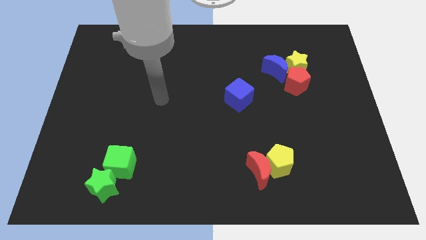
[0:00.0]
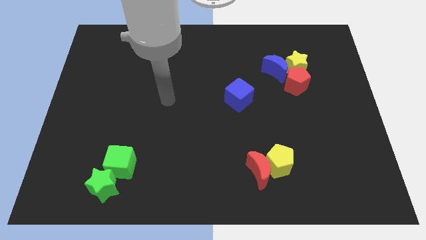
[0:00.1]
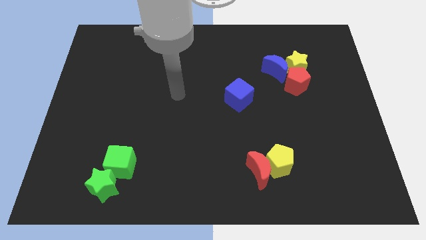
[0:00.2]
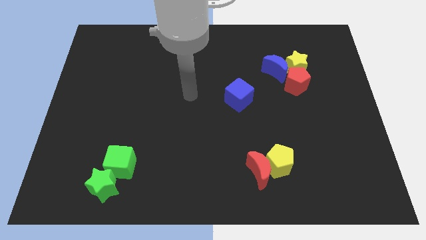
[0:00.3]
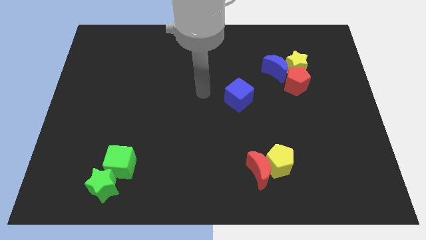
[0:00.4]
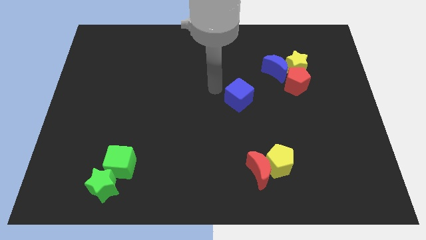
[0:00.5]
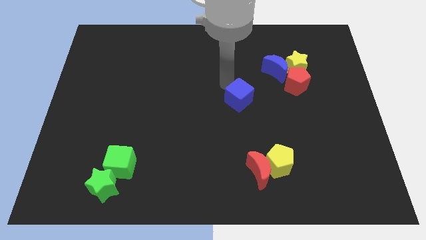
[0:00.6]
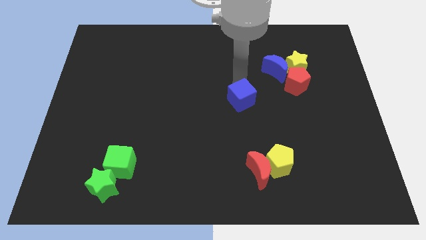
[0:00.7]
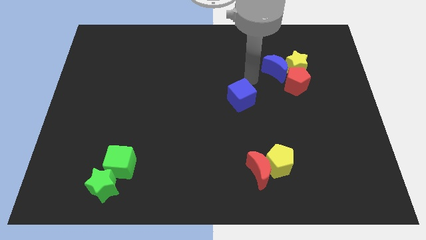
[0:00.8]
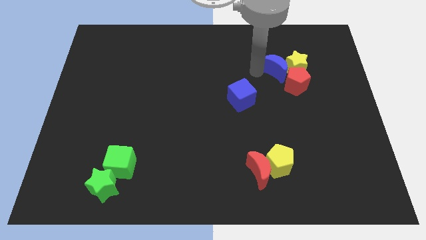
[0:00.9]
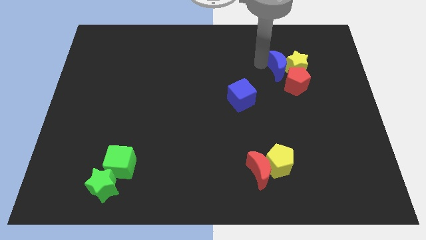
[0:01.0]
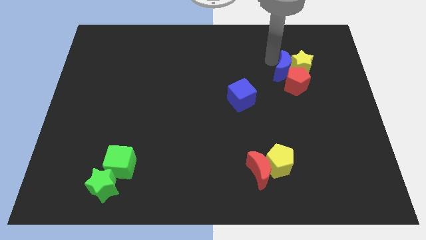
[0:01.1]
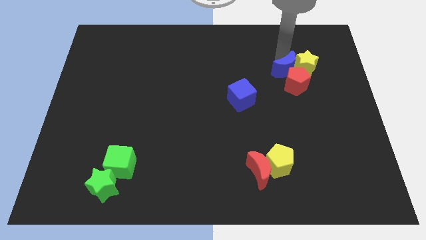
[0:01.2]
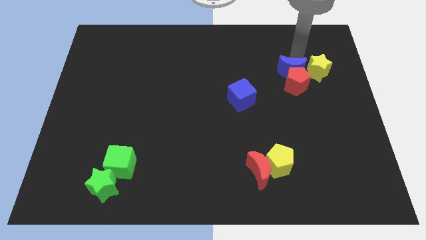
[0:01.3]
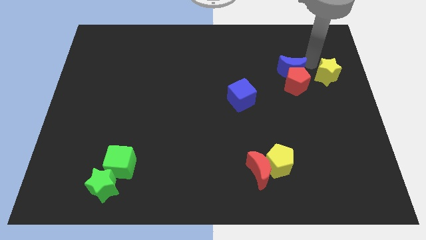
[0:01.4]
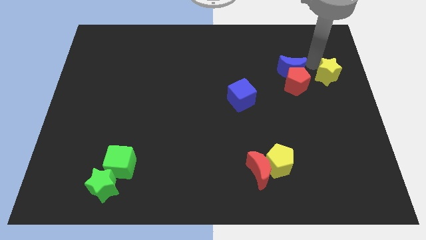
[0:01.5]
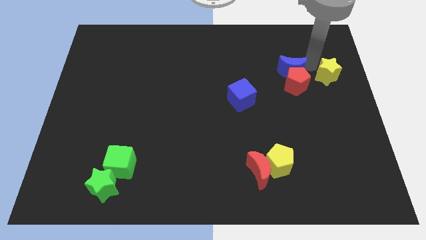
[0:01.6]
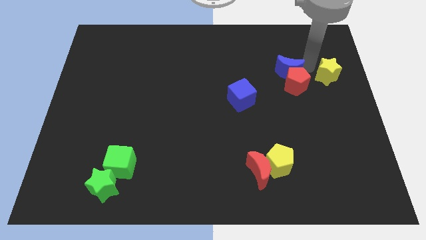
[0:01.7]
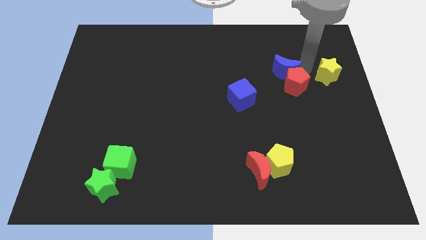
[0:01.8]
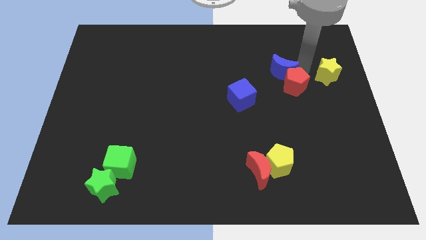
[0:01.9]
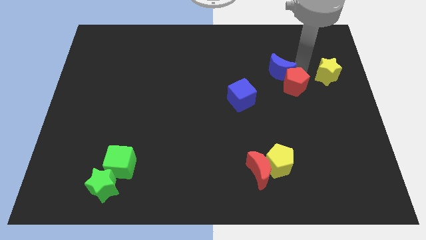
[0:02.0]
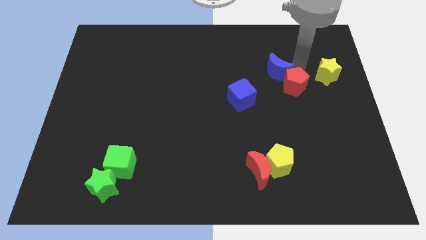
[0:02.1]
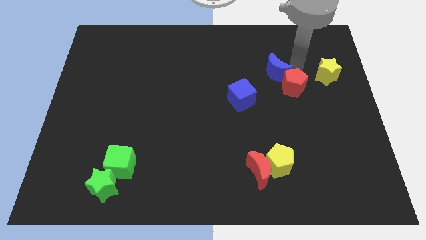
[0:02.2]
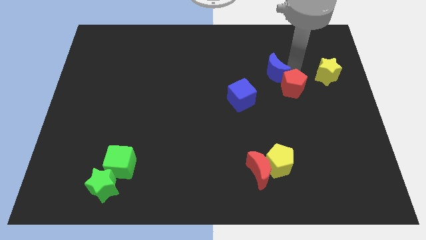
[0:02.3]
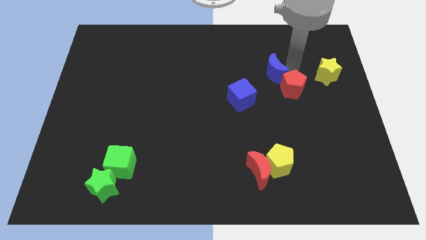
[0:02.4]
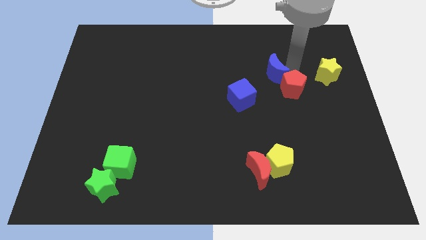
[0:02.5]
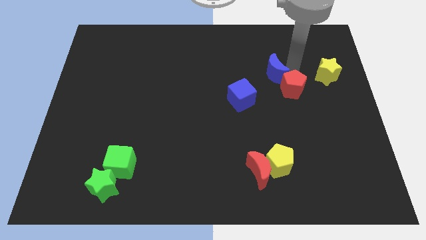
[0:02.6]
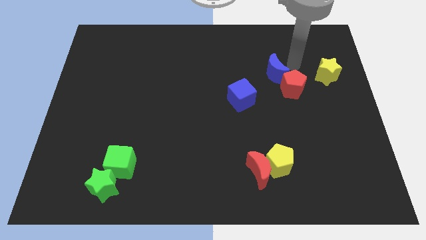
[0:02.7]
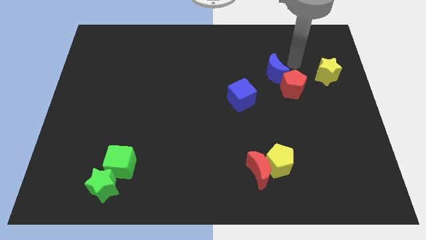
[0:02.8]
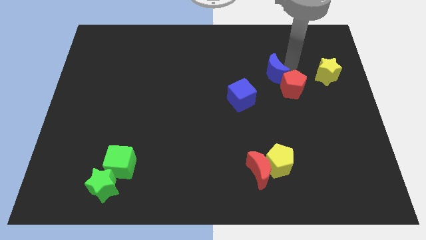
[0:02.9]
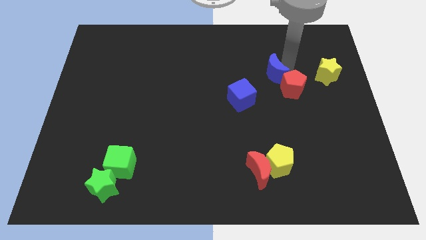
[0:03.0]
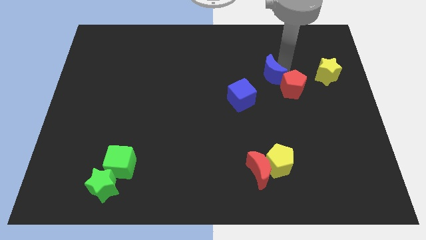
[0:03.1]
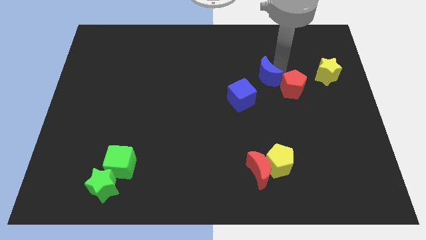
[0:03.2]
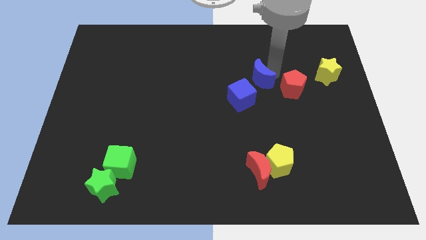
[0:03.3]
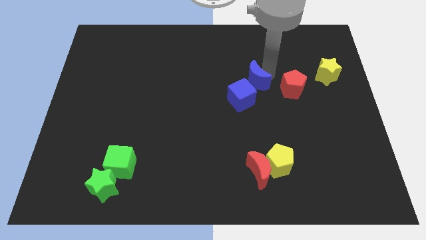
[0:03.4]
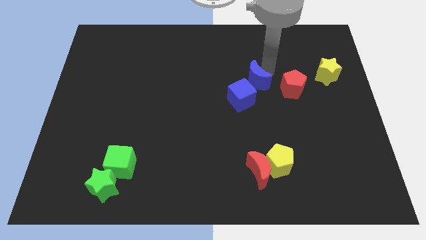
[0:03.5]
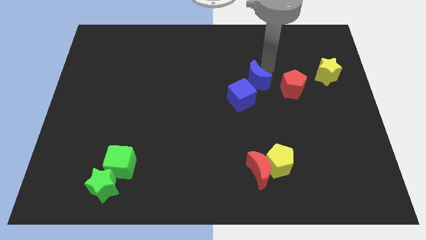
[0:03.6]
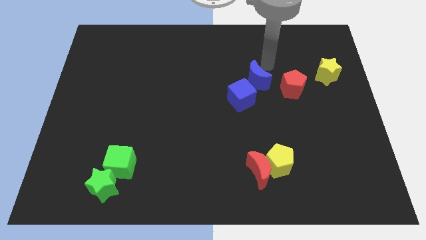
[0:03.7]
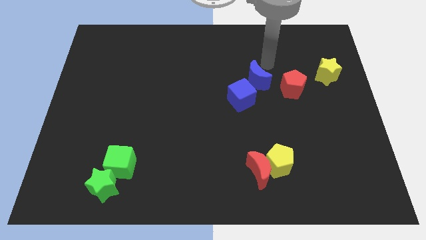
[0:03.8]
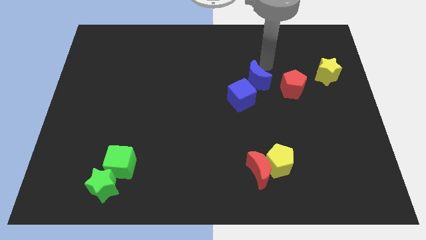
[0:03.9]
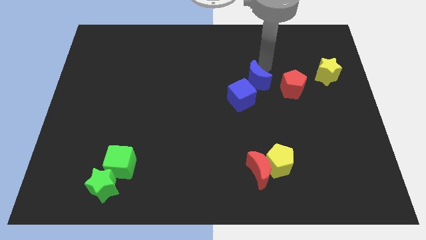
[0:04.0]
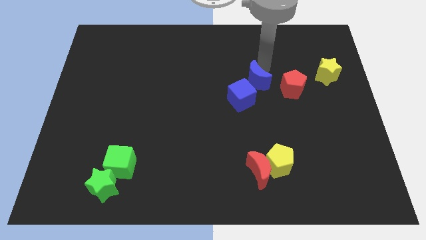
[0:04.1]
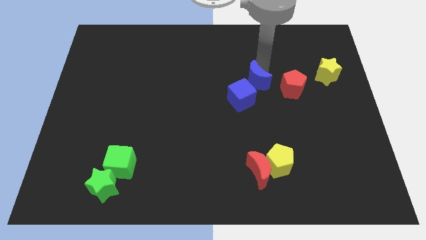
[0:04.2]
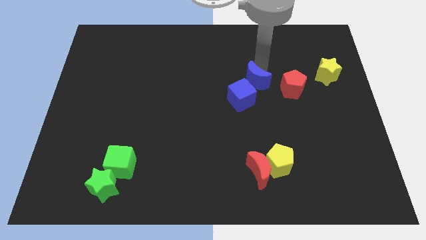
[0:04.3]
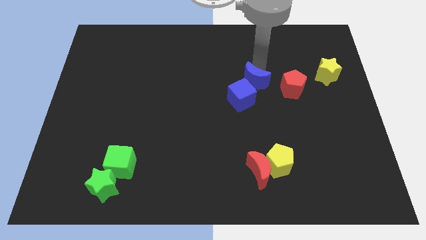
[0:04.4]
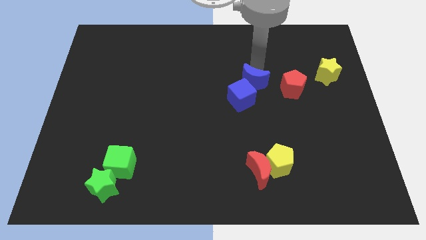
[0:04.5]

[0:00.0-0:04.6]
slide the blue moon close to the blue cube

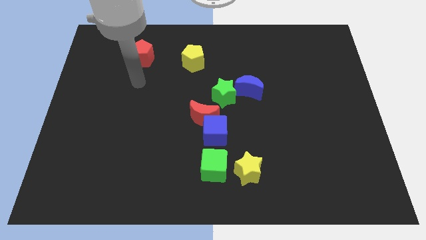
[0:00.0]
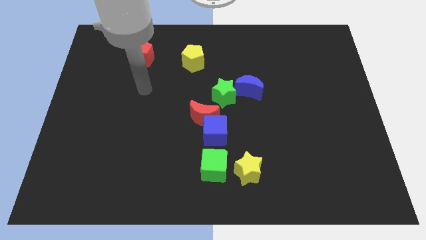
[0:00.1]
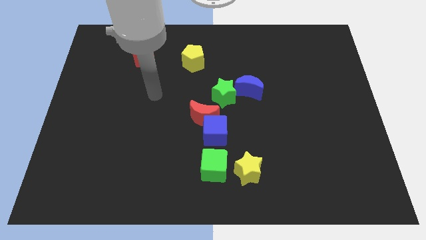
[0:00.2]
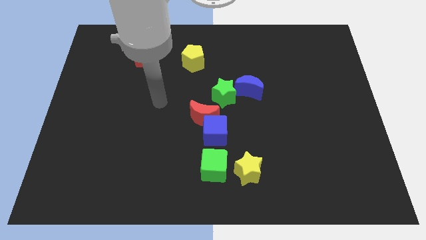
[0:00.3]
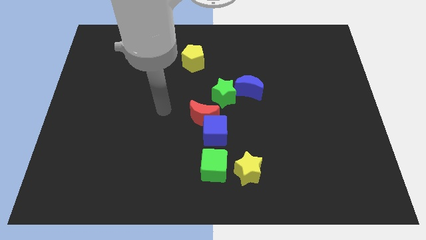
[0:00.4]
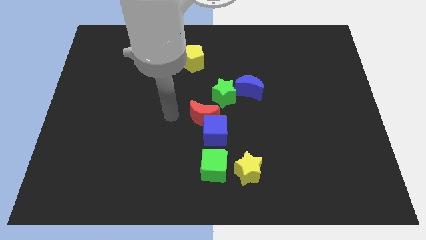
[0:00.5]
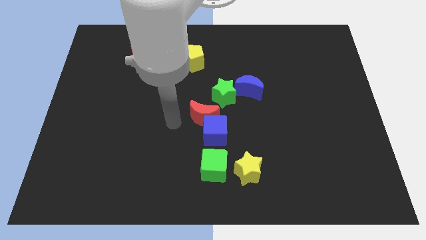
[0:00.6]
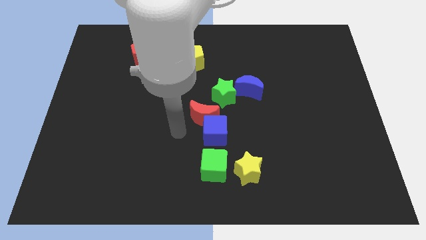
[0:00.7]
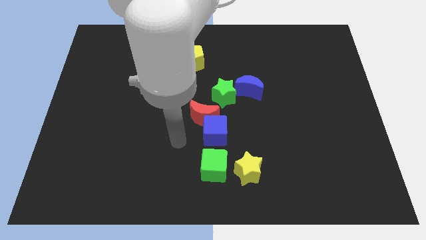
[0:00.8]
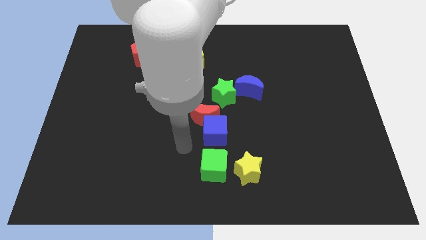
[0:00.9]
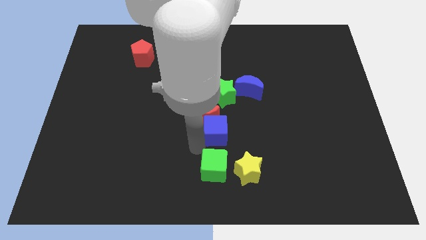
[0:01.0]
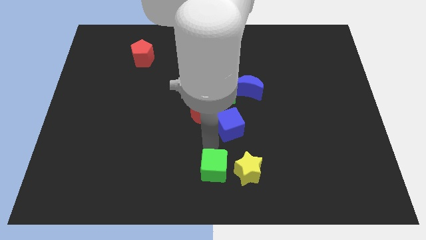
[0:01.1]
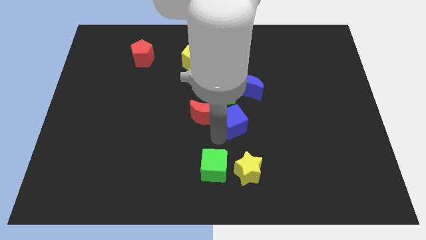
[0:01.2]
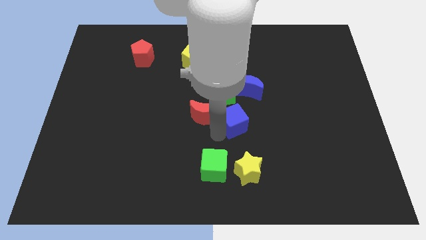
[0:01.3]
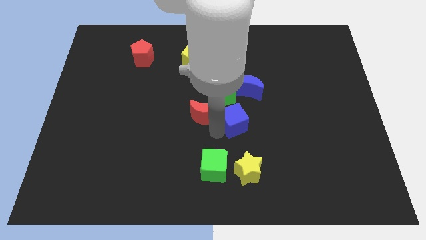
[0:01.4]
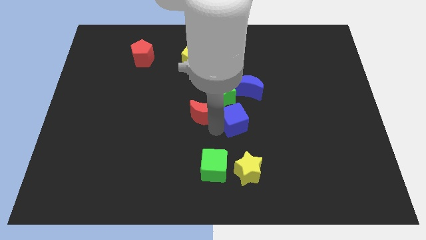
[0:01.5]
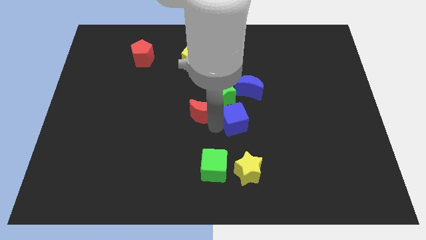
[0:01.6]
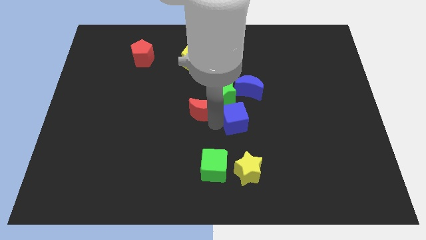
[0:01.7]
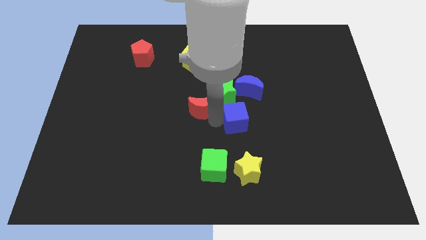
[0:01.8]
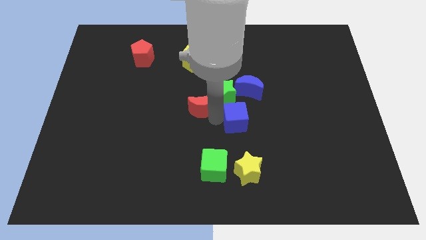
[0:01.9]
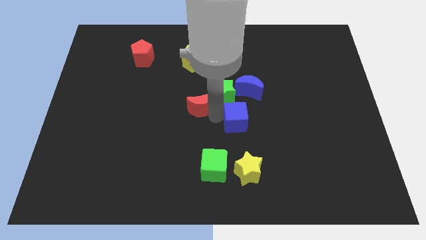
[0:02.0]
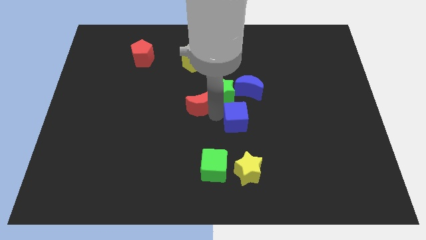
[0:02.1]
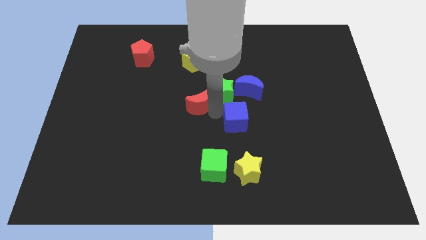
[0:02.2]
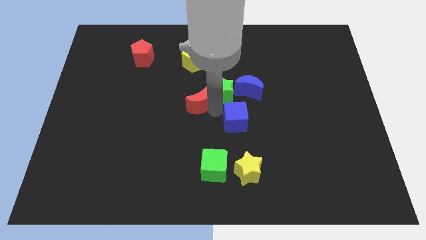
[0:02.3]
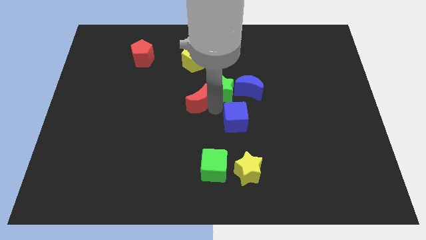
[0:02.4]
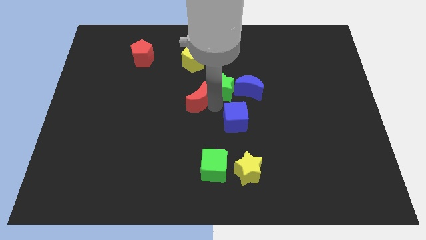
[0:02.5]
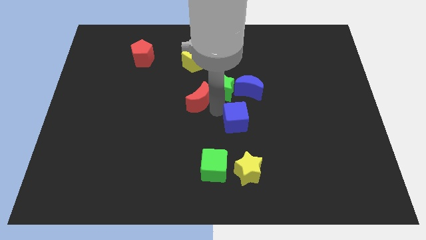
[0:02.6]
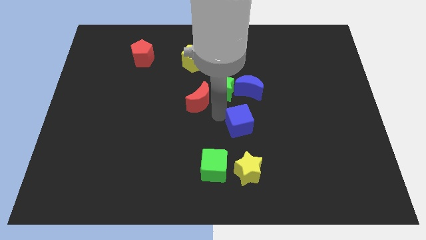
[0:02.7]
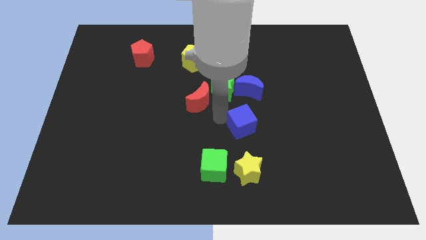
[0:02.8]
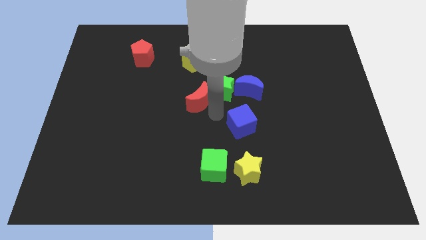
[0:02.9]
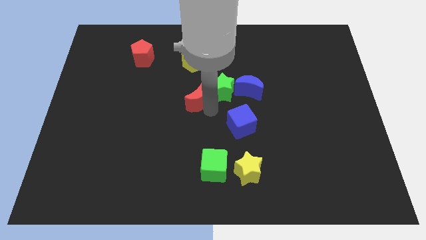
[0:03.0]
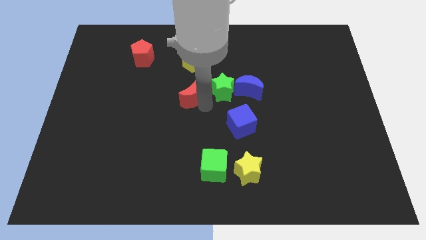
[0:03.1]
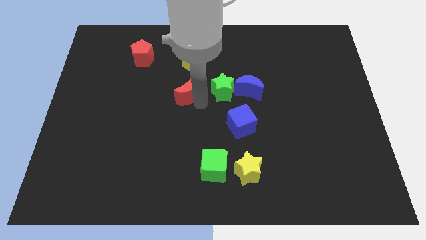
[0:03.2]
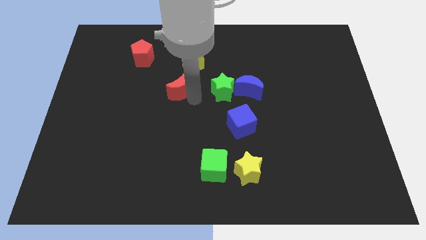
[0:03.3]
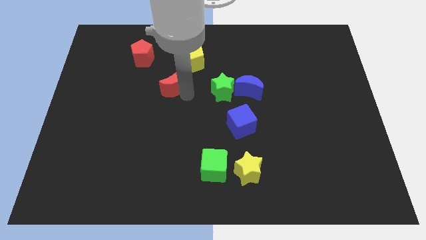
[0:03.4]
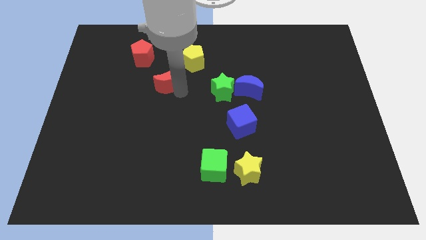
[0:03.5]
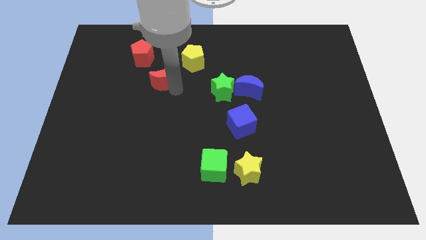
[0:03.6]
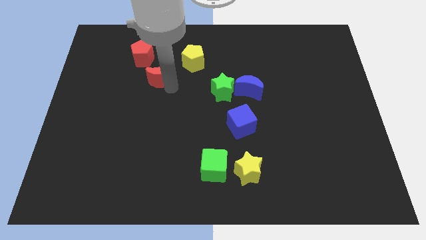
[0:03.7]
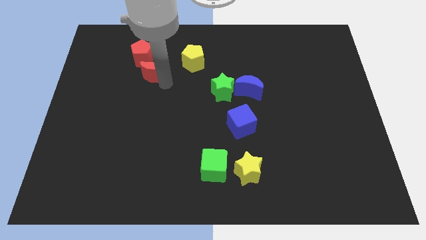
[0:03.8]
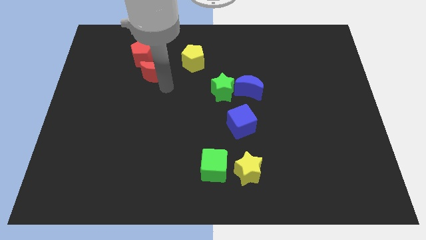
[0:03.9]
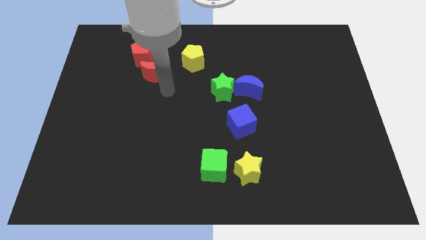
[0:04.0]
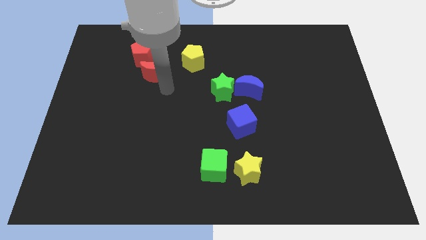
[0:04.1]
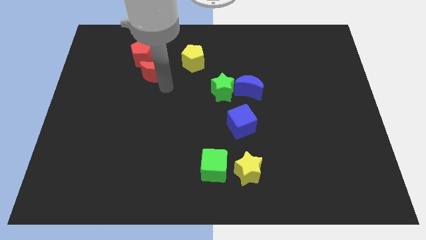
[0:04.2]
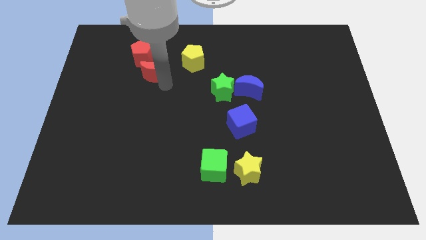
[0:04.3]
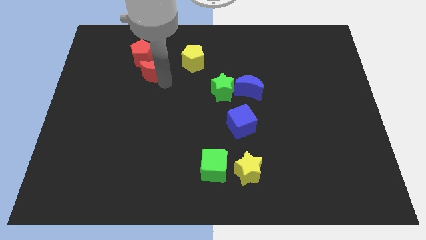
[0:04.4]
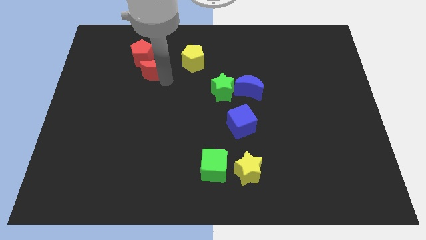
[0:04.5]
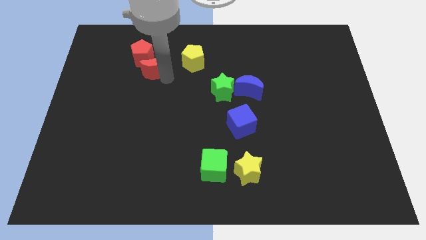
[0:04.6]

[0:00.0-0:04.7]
put the red moon to the red pentagon
